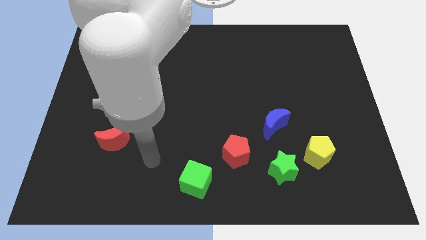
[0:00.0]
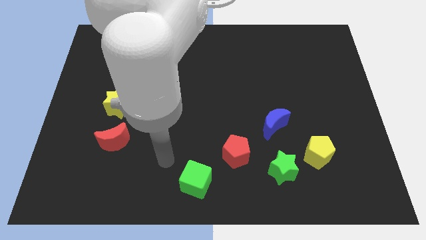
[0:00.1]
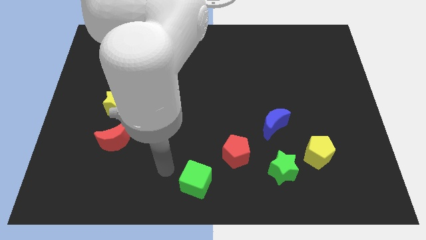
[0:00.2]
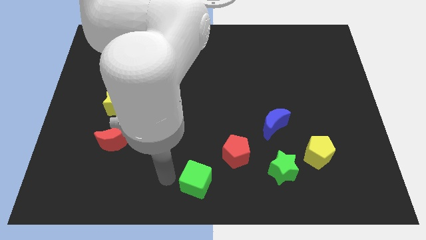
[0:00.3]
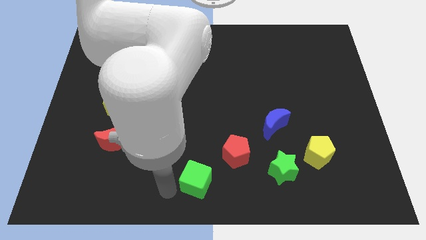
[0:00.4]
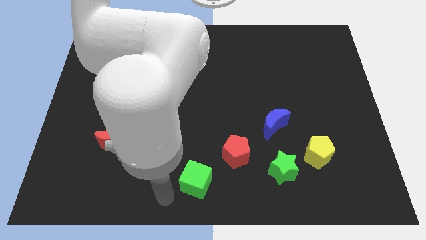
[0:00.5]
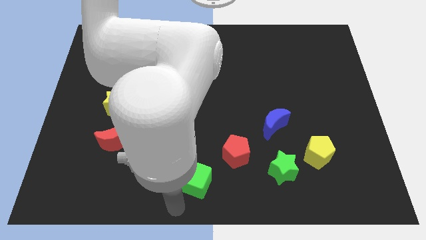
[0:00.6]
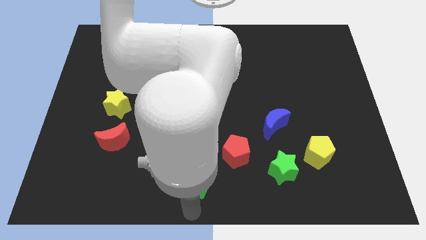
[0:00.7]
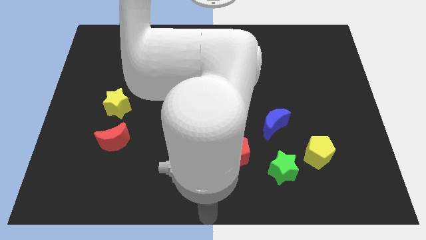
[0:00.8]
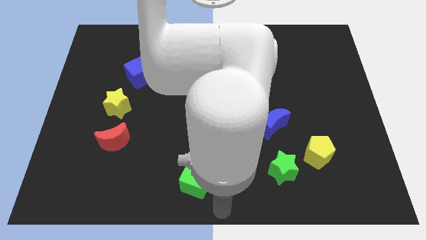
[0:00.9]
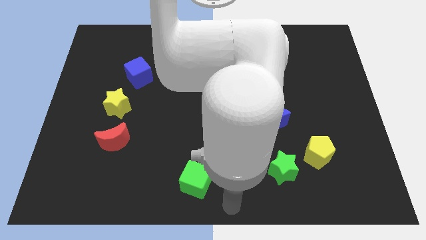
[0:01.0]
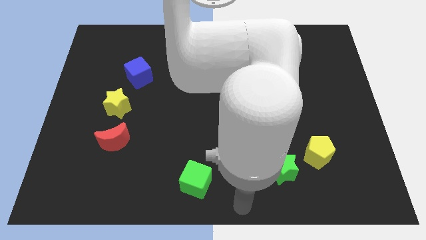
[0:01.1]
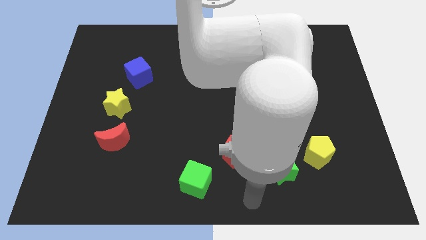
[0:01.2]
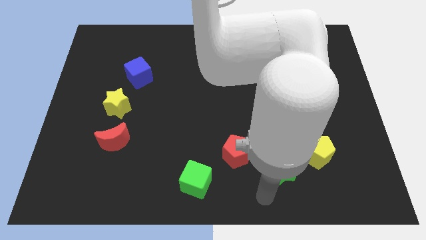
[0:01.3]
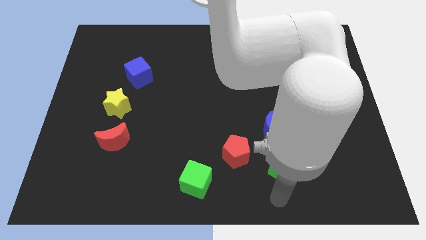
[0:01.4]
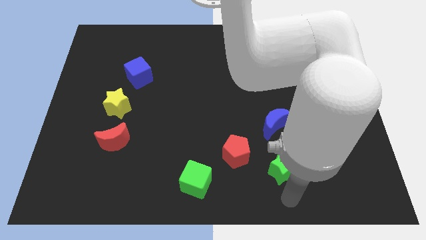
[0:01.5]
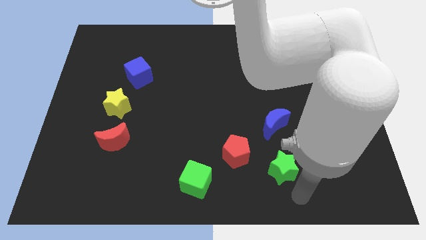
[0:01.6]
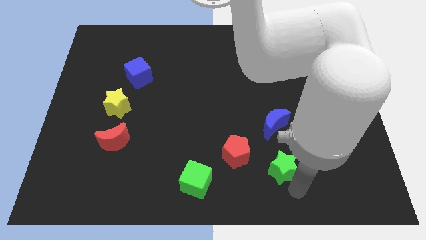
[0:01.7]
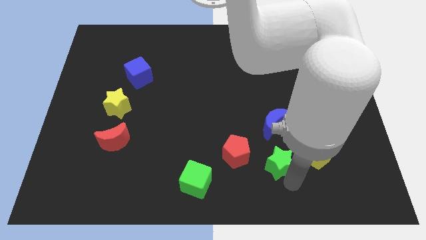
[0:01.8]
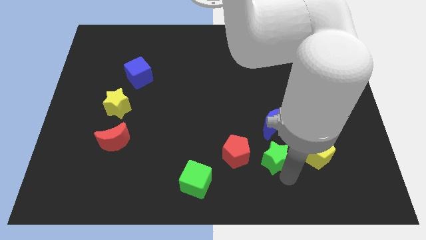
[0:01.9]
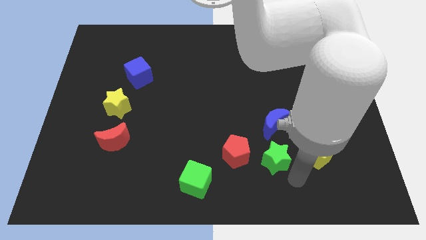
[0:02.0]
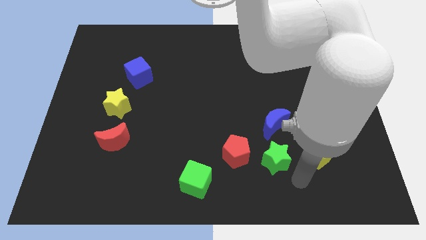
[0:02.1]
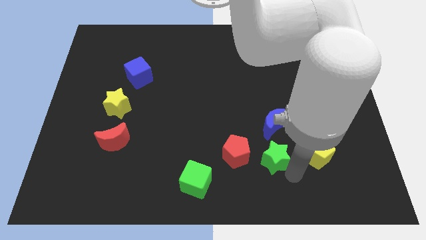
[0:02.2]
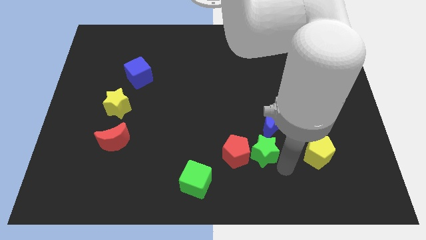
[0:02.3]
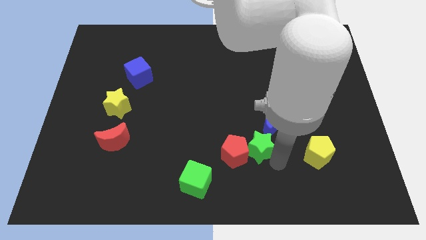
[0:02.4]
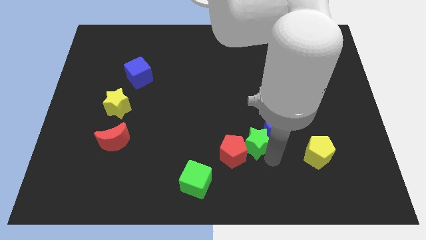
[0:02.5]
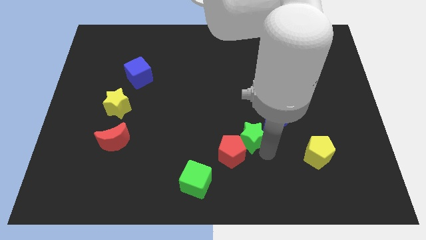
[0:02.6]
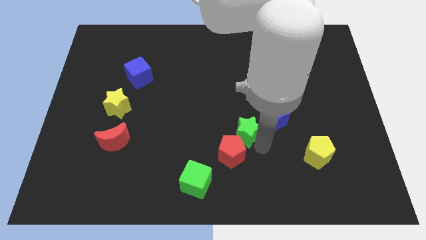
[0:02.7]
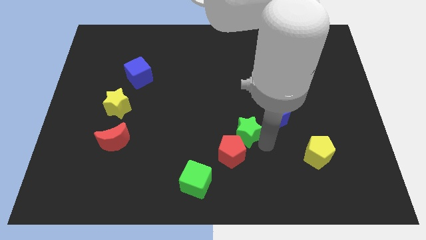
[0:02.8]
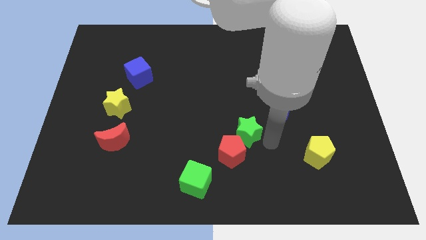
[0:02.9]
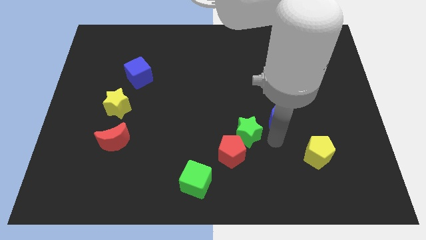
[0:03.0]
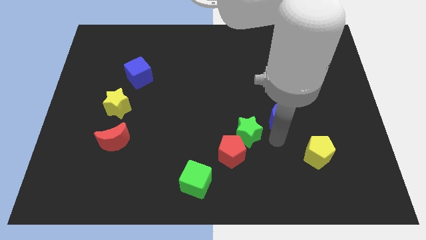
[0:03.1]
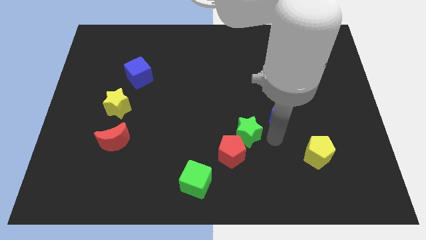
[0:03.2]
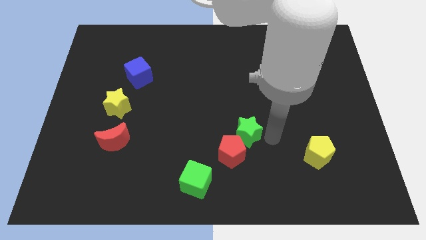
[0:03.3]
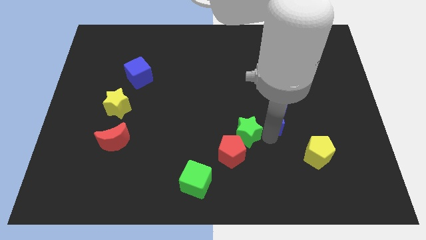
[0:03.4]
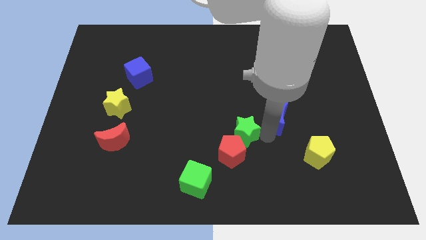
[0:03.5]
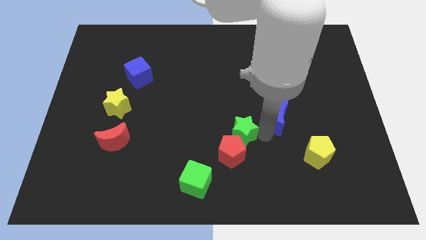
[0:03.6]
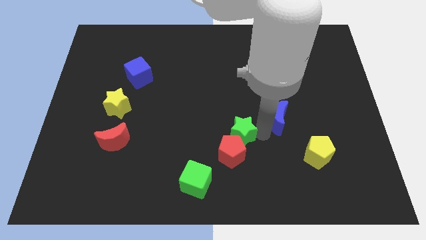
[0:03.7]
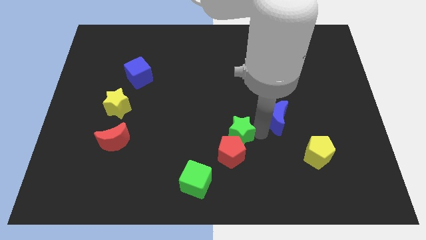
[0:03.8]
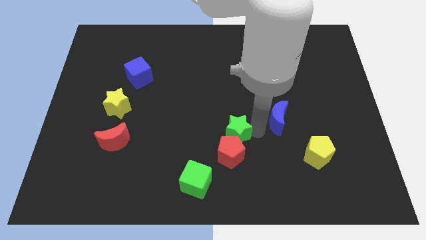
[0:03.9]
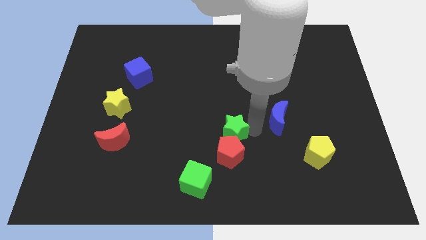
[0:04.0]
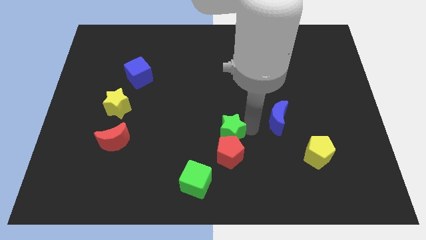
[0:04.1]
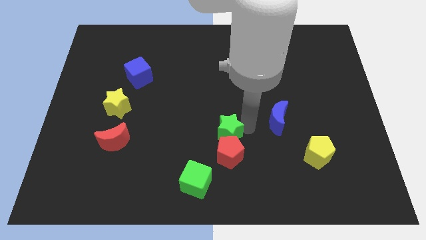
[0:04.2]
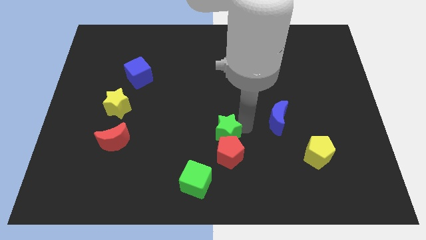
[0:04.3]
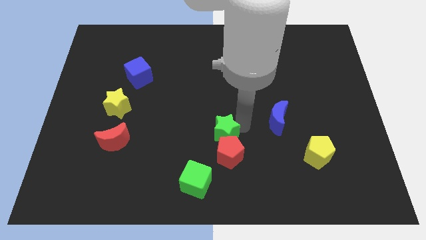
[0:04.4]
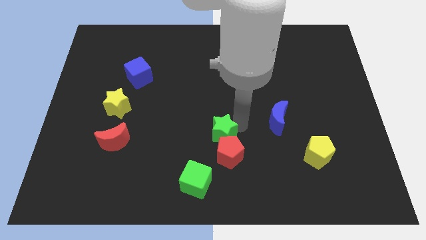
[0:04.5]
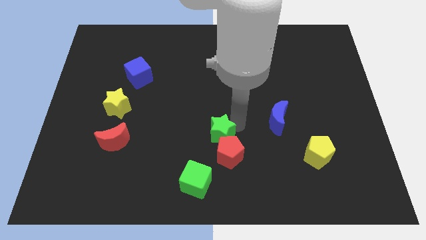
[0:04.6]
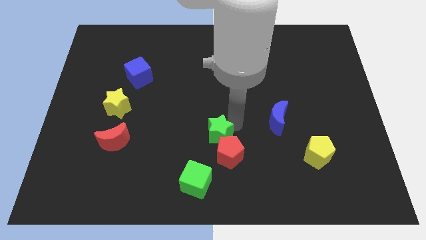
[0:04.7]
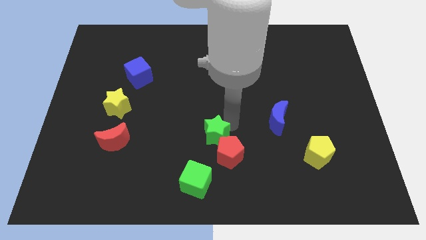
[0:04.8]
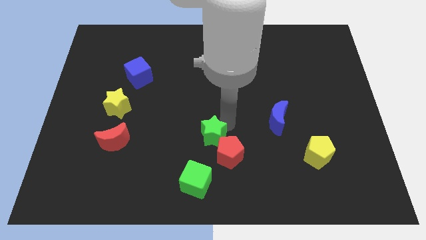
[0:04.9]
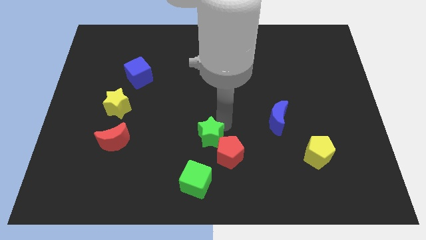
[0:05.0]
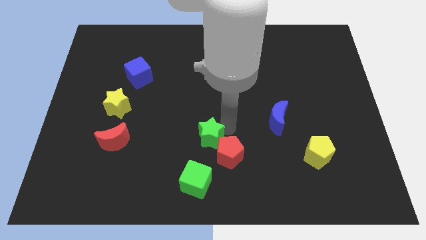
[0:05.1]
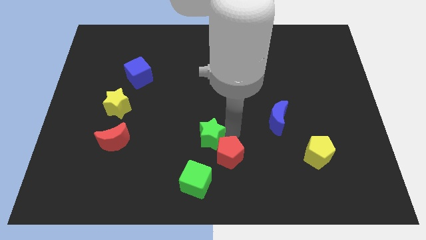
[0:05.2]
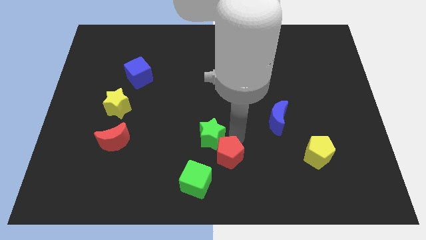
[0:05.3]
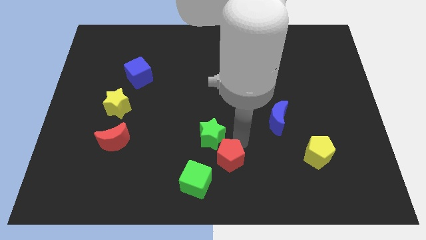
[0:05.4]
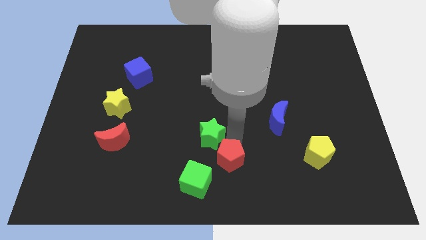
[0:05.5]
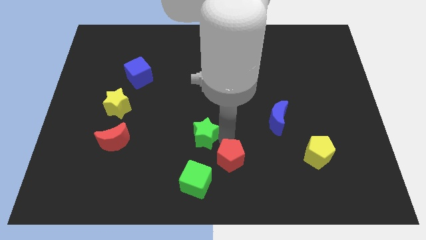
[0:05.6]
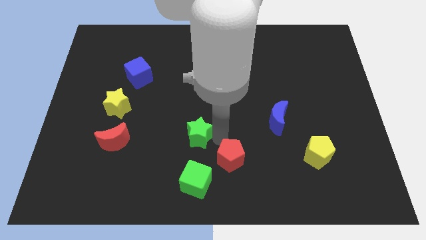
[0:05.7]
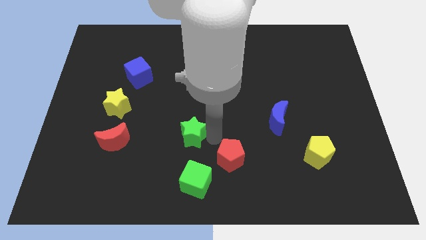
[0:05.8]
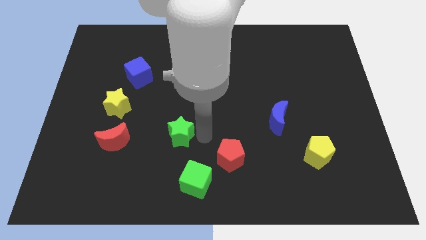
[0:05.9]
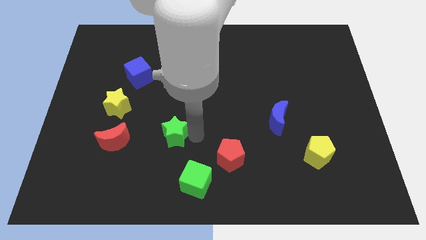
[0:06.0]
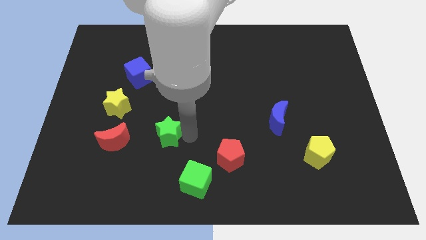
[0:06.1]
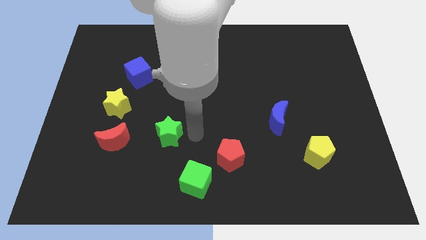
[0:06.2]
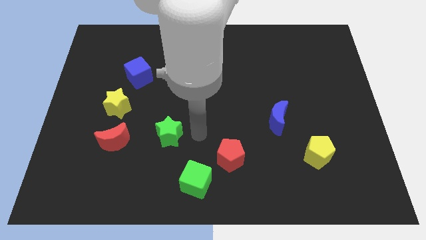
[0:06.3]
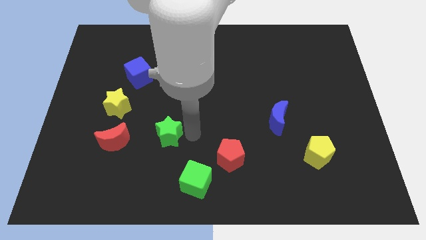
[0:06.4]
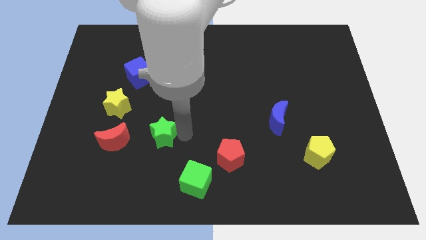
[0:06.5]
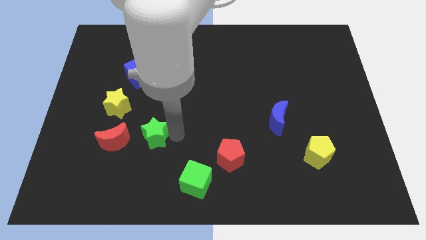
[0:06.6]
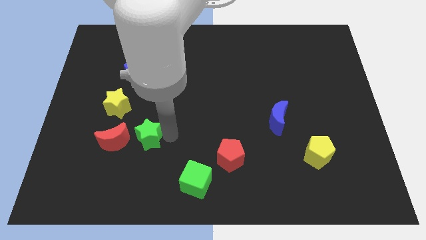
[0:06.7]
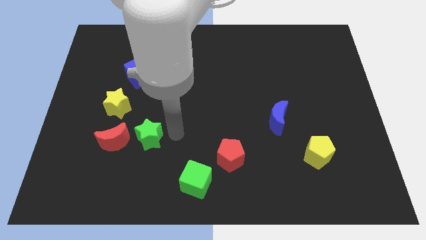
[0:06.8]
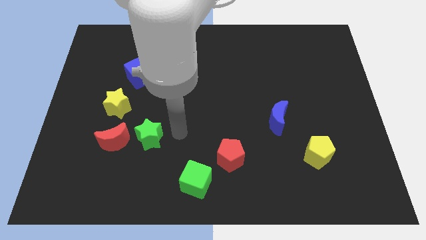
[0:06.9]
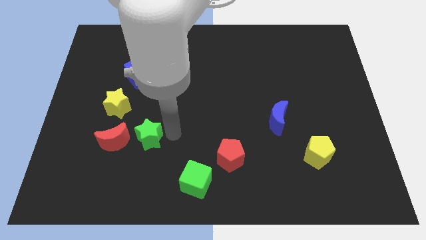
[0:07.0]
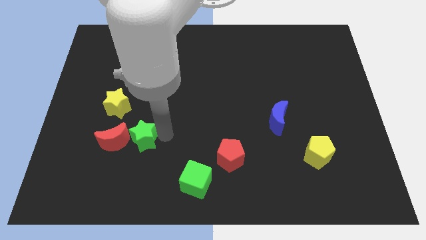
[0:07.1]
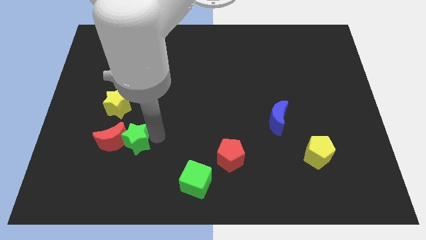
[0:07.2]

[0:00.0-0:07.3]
put the green star towards the red moon

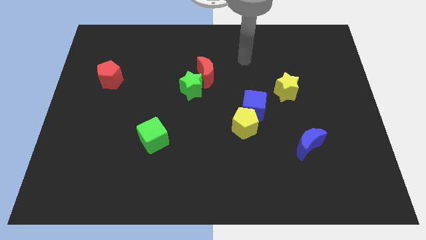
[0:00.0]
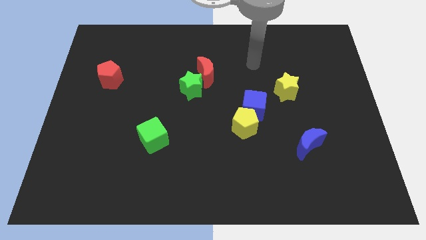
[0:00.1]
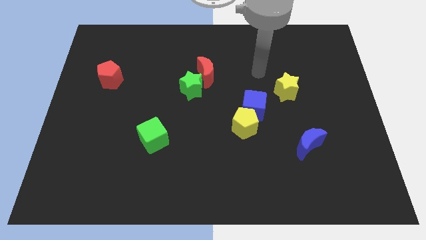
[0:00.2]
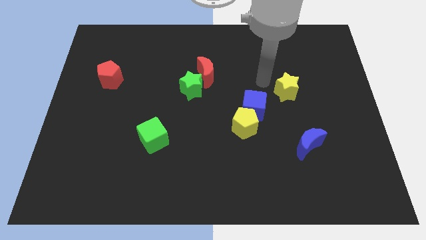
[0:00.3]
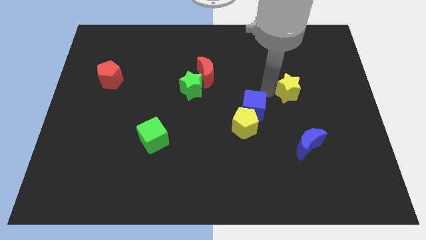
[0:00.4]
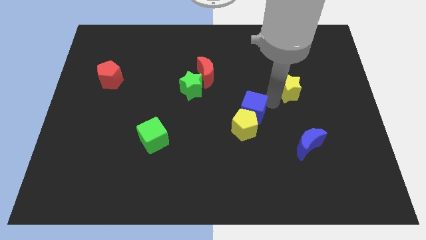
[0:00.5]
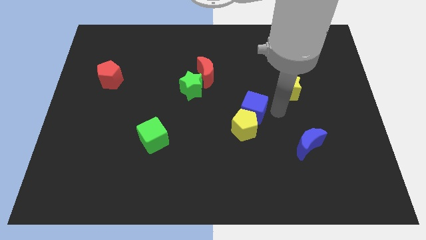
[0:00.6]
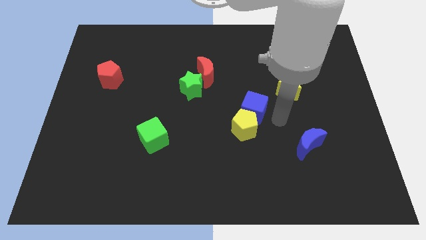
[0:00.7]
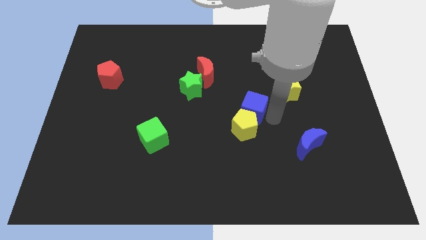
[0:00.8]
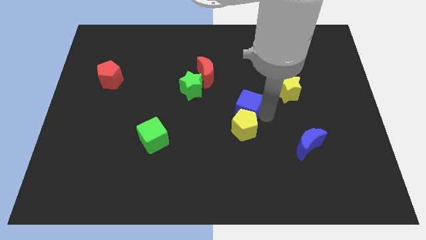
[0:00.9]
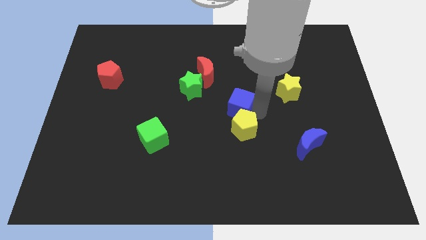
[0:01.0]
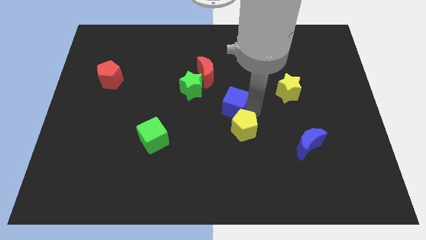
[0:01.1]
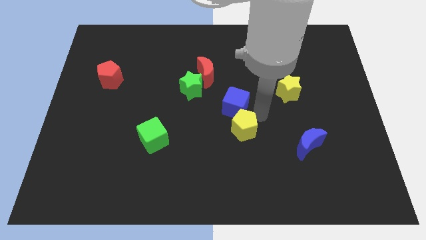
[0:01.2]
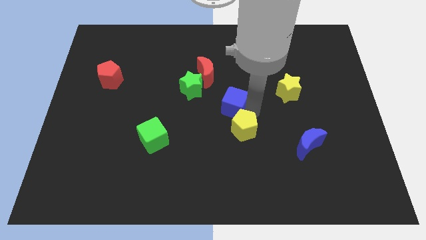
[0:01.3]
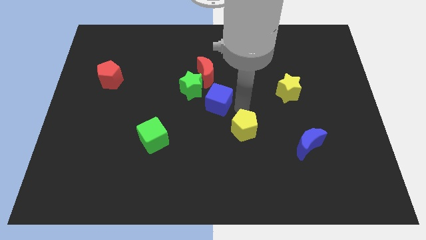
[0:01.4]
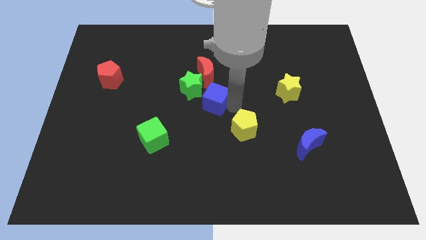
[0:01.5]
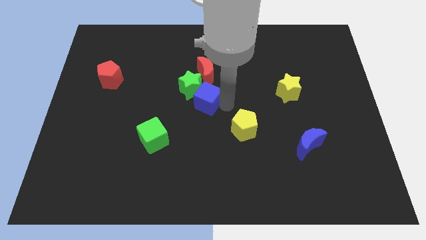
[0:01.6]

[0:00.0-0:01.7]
slide the blue cube next to the green star
